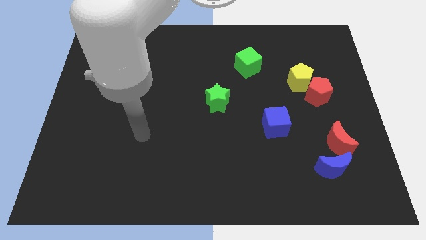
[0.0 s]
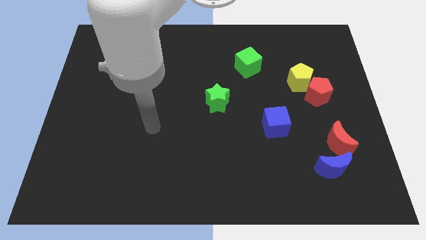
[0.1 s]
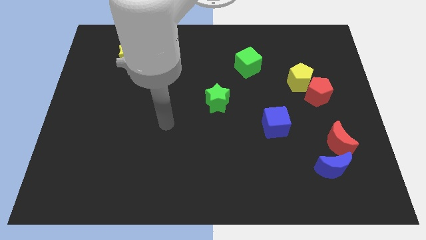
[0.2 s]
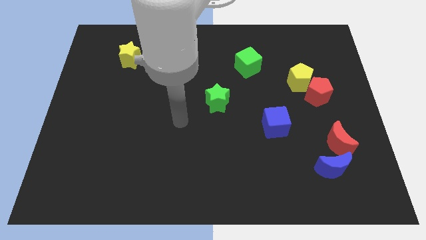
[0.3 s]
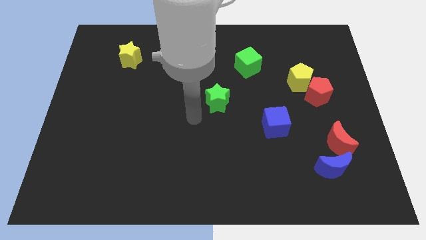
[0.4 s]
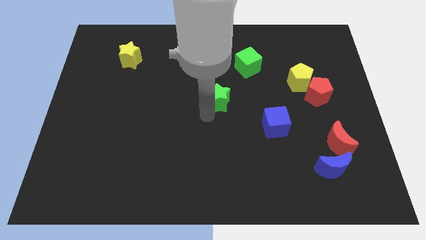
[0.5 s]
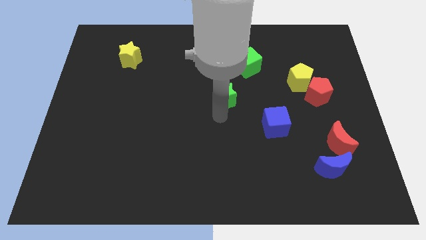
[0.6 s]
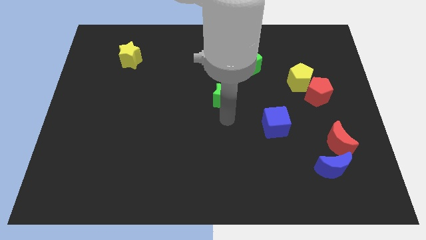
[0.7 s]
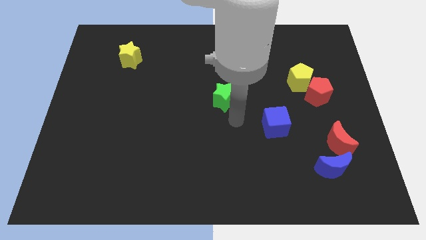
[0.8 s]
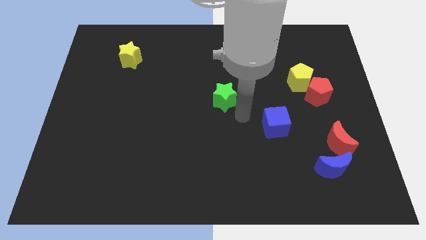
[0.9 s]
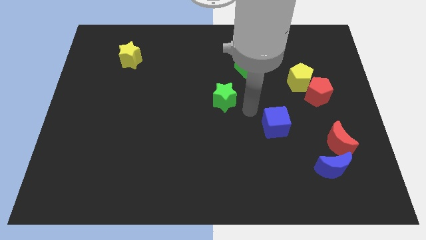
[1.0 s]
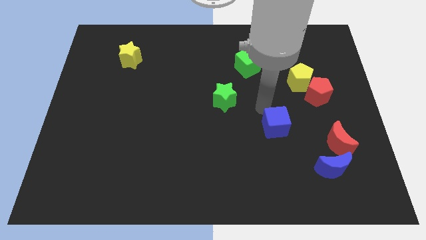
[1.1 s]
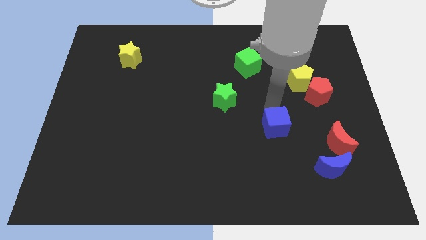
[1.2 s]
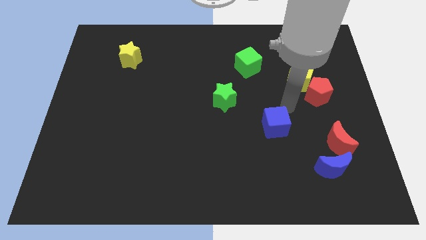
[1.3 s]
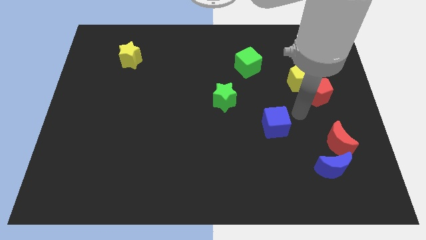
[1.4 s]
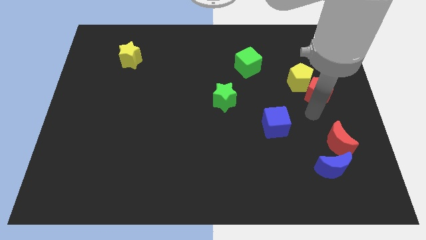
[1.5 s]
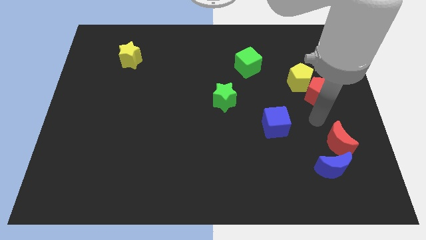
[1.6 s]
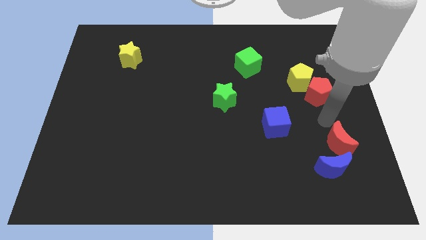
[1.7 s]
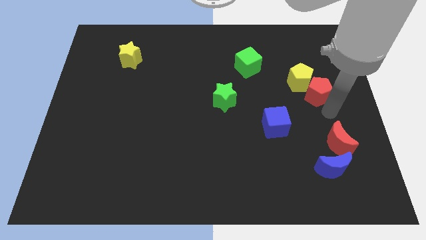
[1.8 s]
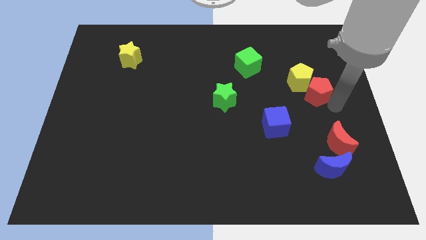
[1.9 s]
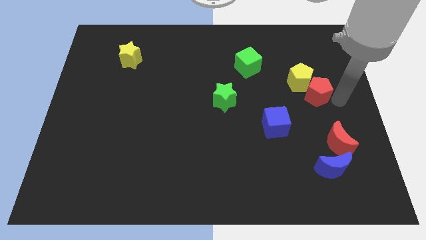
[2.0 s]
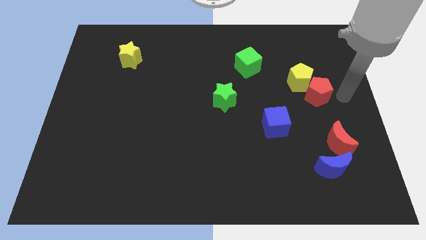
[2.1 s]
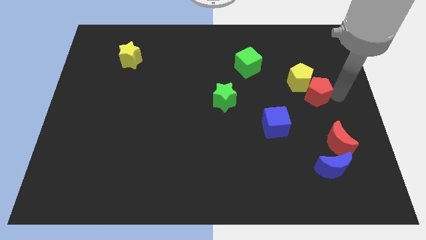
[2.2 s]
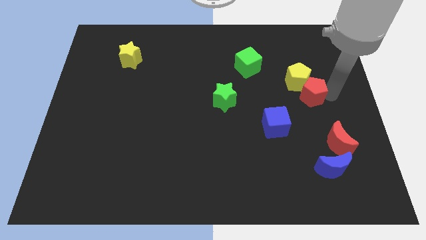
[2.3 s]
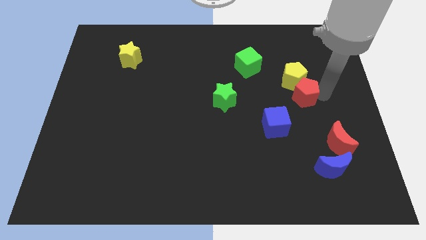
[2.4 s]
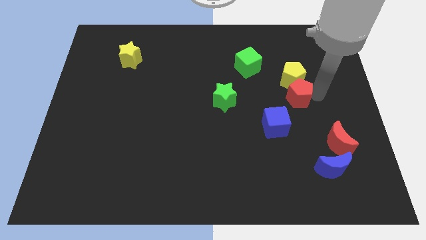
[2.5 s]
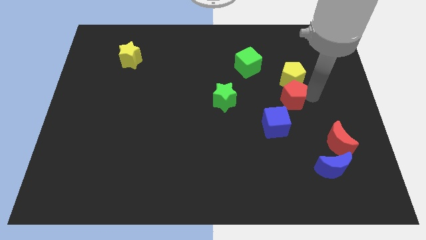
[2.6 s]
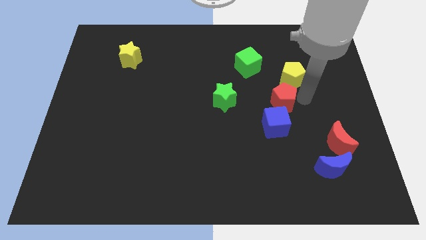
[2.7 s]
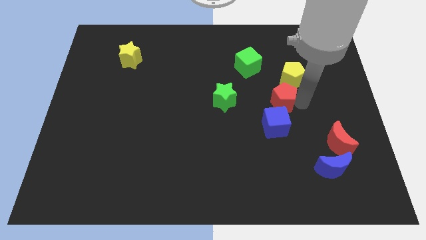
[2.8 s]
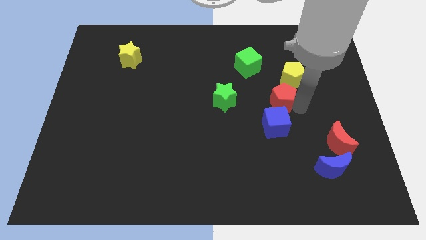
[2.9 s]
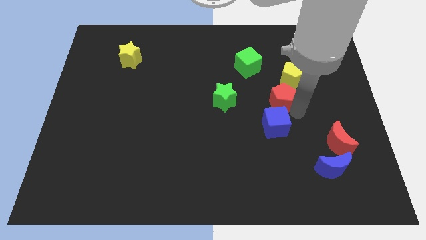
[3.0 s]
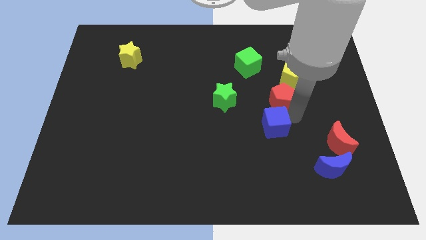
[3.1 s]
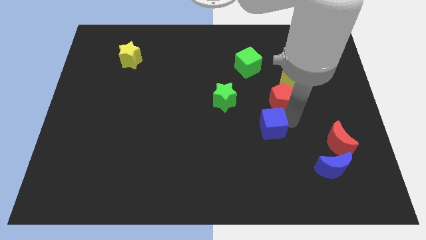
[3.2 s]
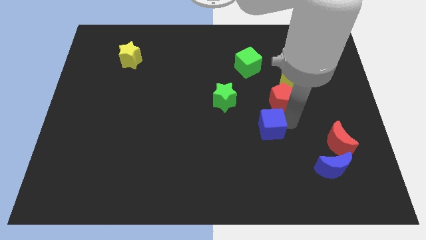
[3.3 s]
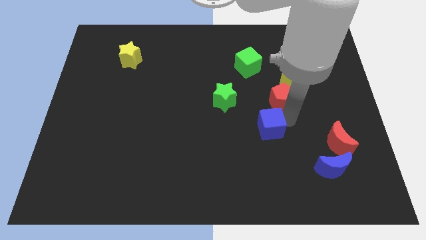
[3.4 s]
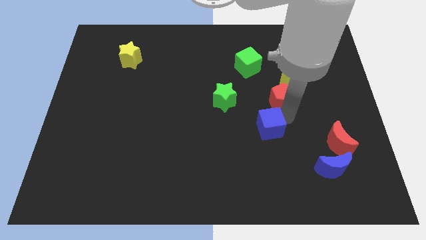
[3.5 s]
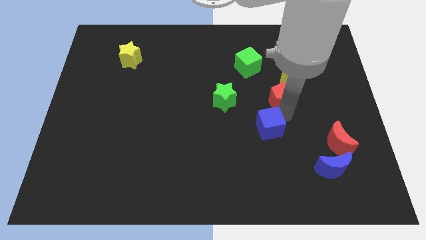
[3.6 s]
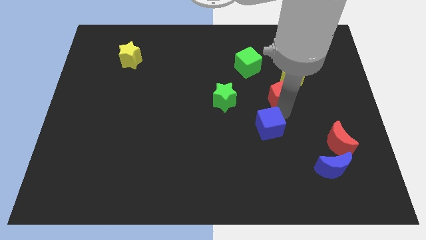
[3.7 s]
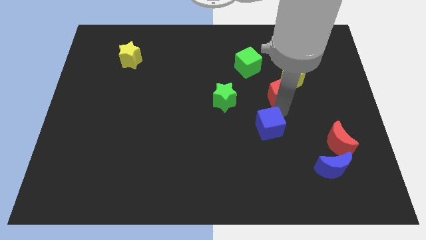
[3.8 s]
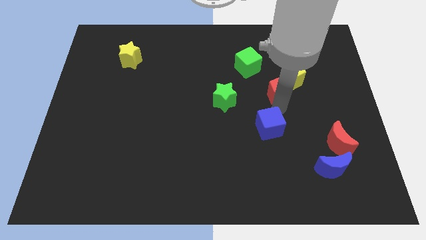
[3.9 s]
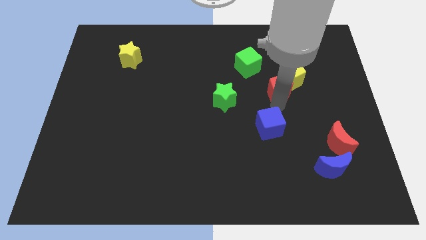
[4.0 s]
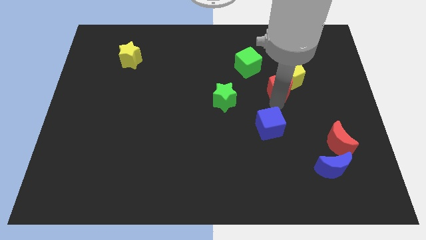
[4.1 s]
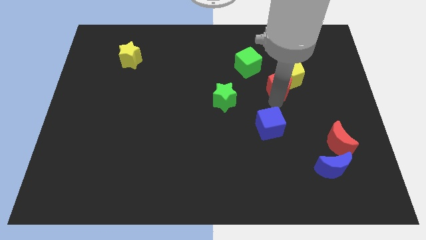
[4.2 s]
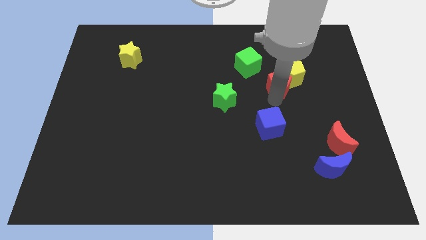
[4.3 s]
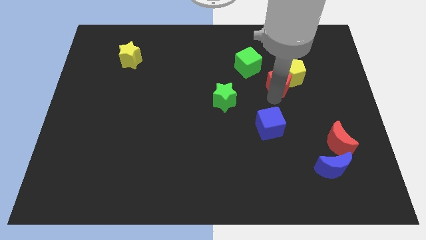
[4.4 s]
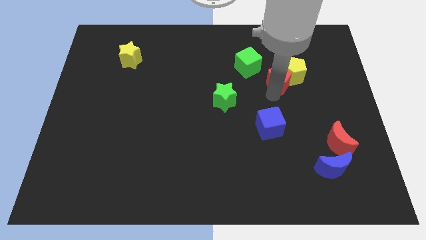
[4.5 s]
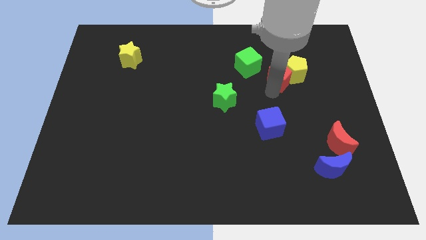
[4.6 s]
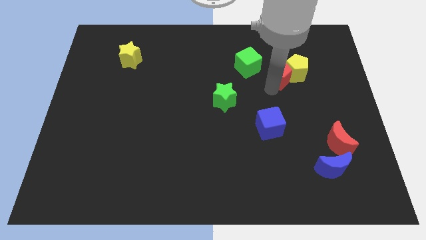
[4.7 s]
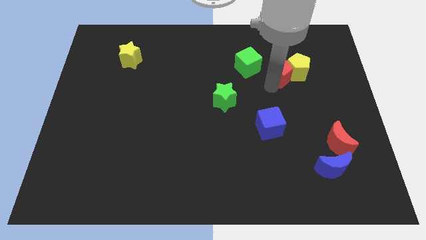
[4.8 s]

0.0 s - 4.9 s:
slide the red pentagon diagonally up and to the left of the yellow pentagon

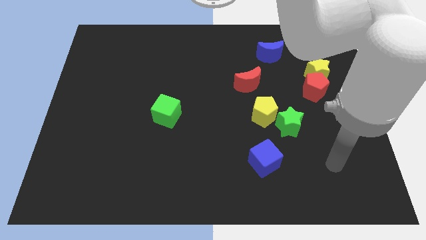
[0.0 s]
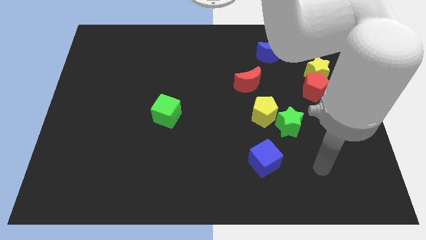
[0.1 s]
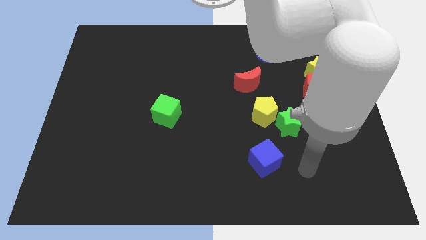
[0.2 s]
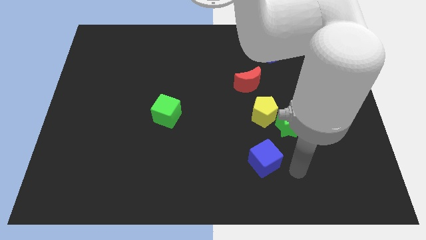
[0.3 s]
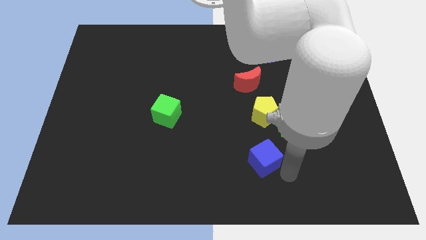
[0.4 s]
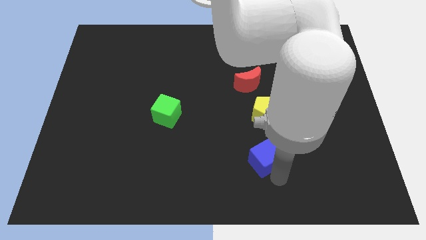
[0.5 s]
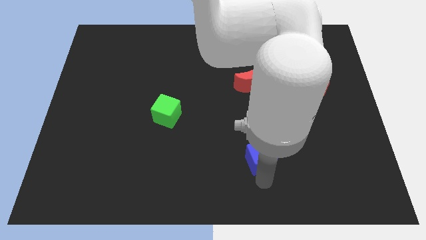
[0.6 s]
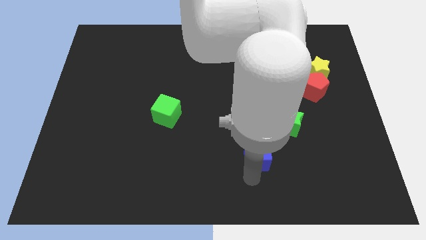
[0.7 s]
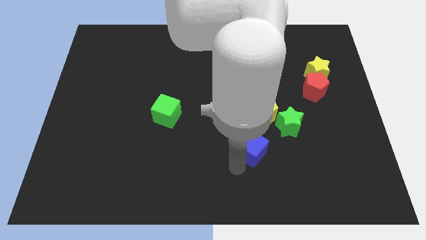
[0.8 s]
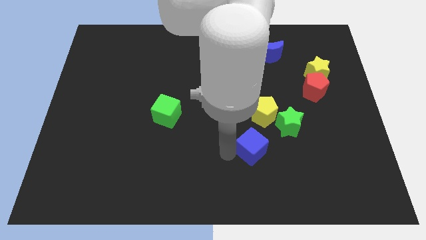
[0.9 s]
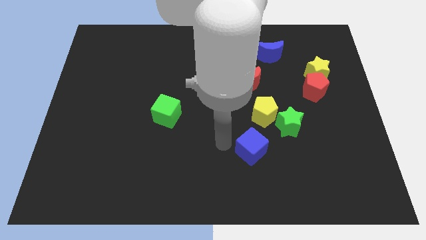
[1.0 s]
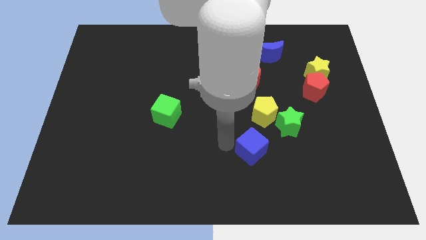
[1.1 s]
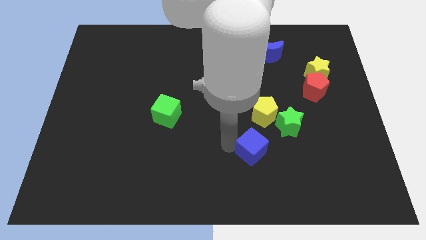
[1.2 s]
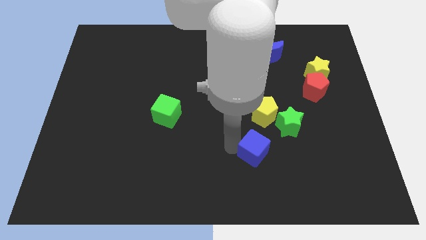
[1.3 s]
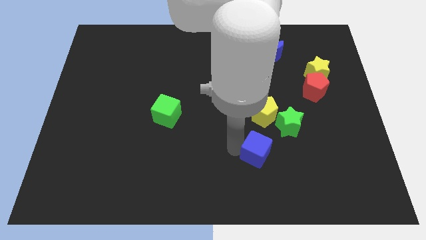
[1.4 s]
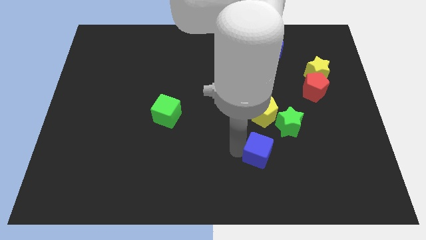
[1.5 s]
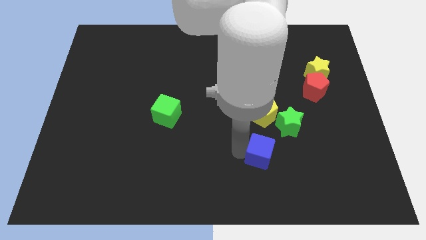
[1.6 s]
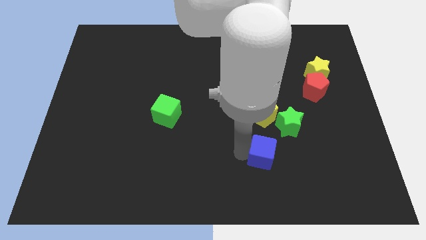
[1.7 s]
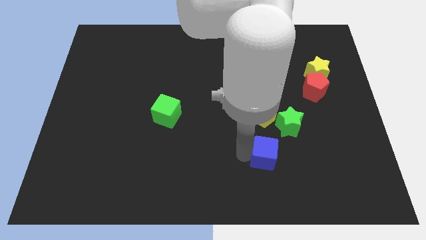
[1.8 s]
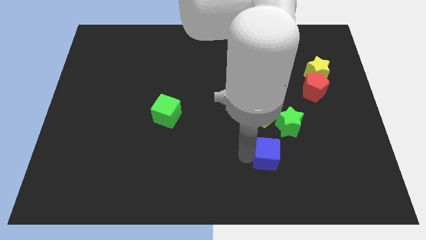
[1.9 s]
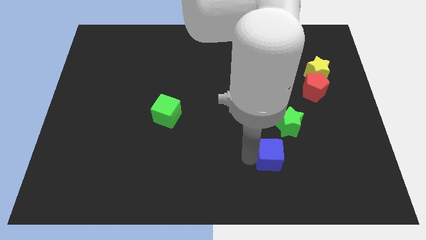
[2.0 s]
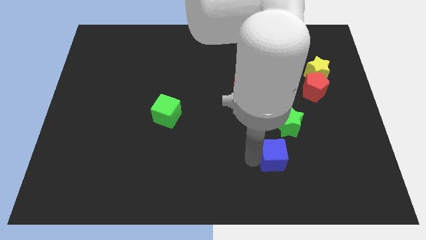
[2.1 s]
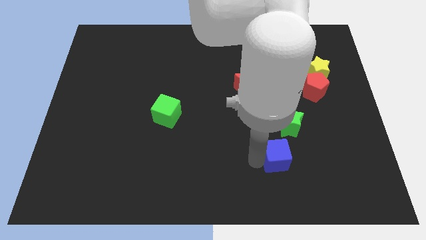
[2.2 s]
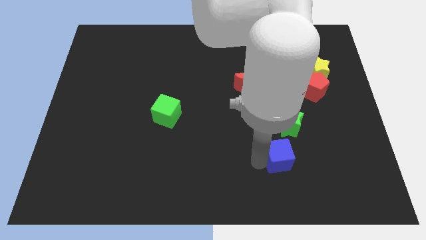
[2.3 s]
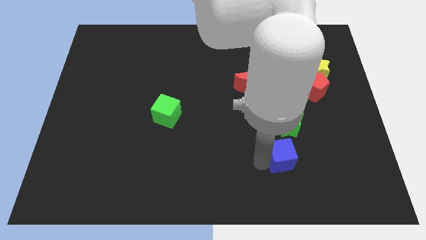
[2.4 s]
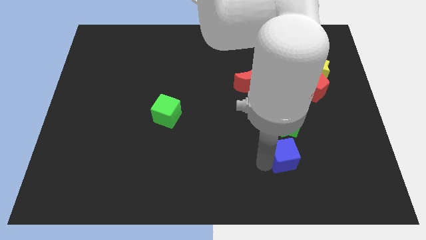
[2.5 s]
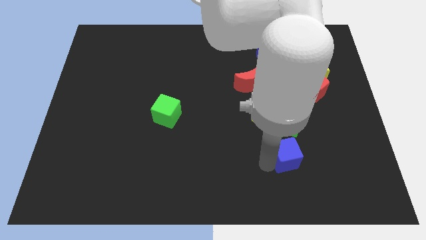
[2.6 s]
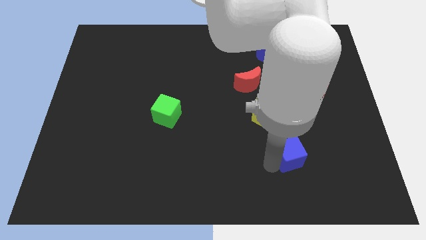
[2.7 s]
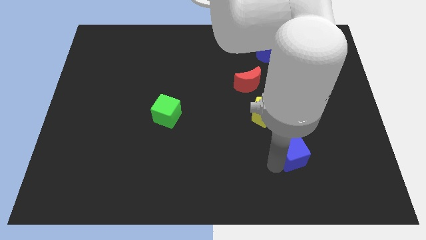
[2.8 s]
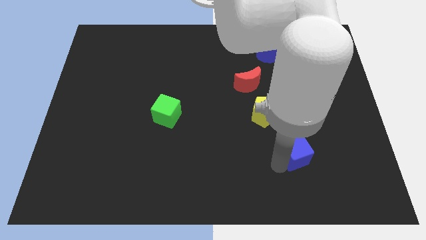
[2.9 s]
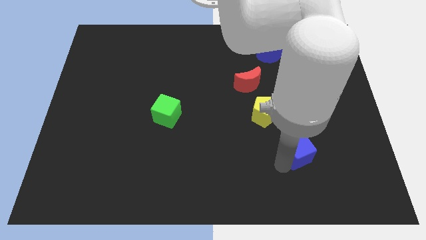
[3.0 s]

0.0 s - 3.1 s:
push the blue cube to the bottom right side of the green star
